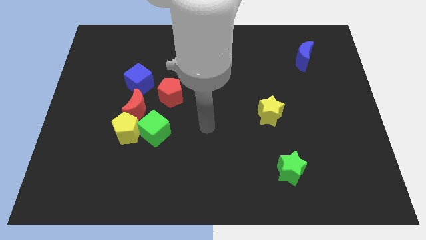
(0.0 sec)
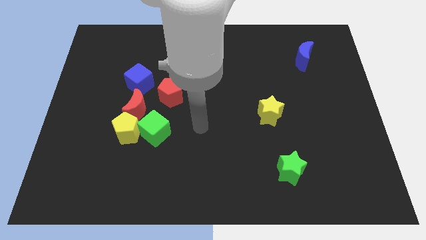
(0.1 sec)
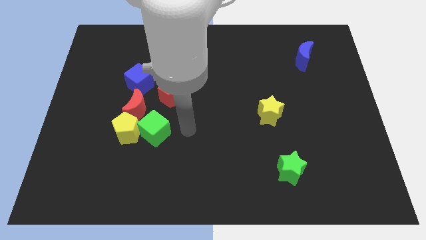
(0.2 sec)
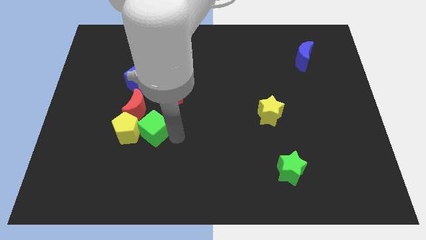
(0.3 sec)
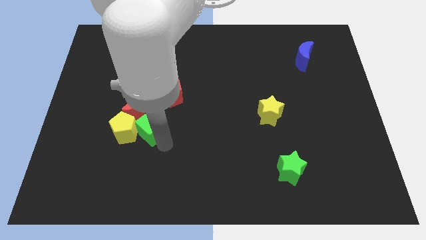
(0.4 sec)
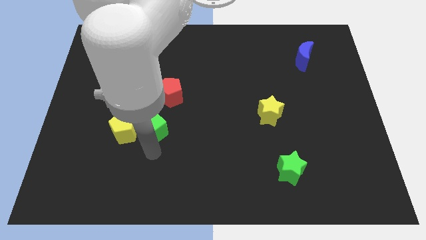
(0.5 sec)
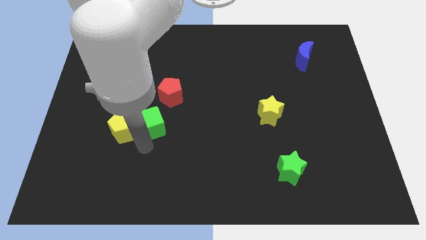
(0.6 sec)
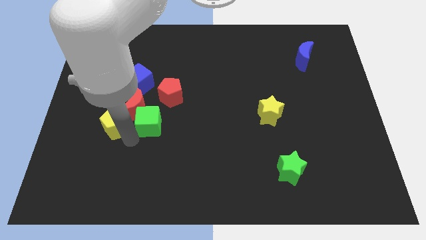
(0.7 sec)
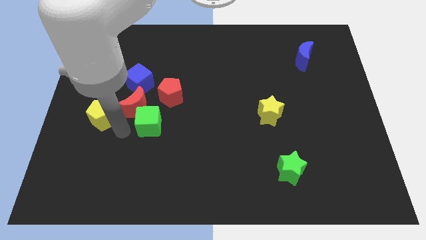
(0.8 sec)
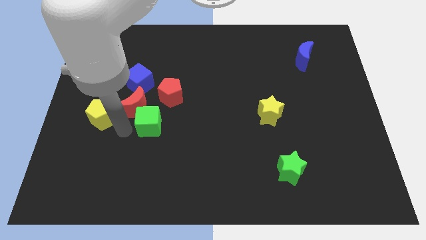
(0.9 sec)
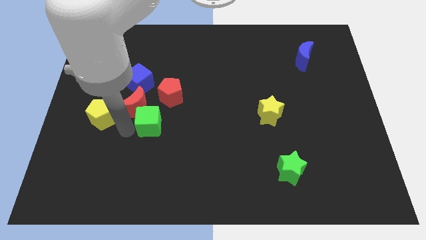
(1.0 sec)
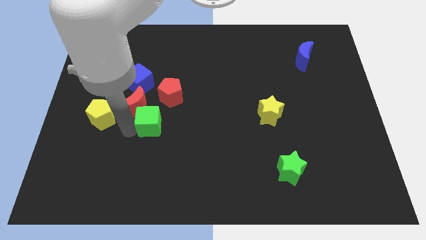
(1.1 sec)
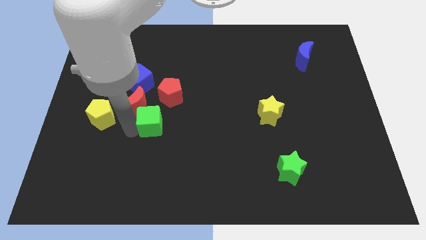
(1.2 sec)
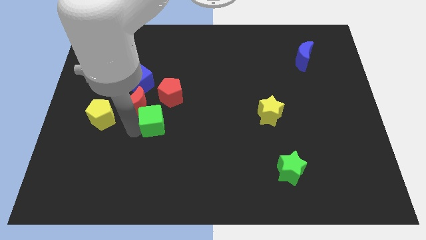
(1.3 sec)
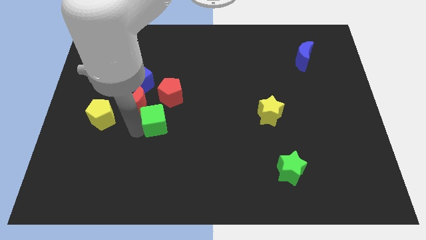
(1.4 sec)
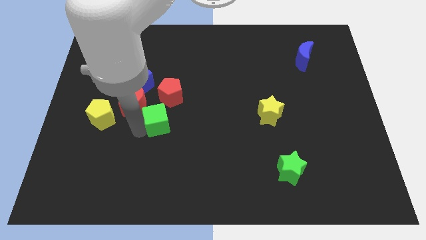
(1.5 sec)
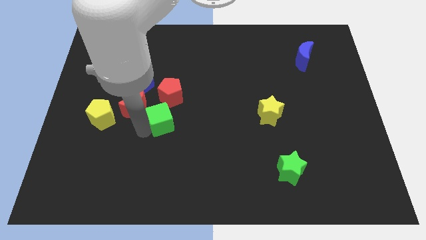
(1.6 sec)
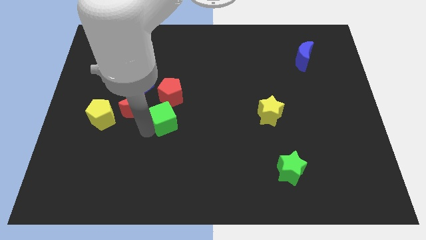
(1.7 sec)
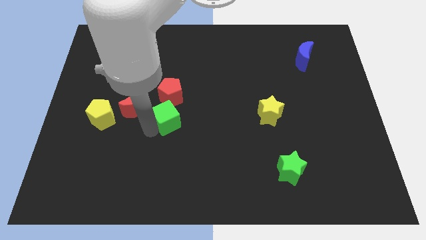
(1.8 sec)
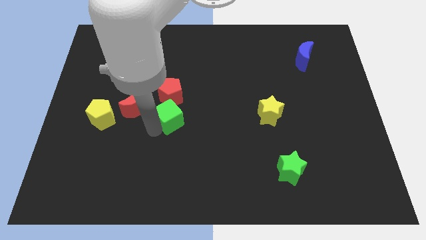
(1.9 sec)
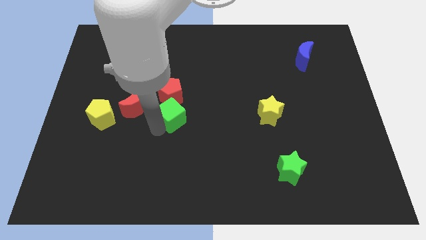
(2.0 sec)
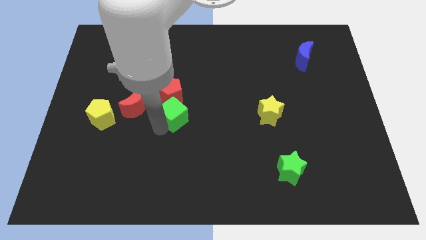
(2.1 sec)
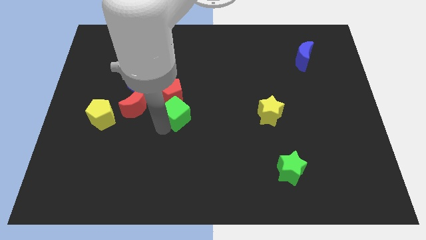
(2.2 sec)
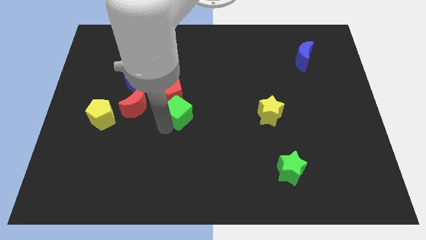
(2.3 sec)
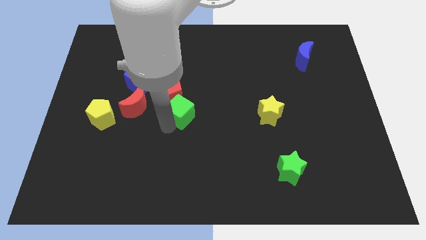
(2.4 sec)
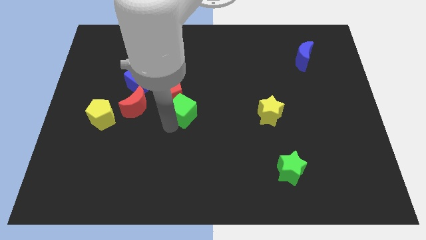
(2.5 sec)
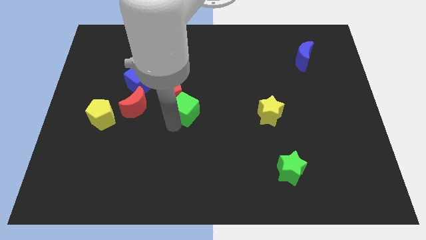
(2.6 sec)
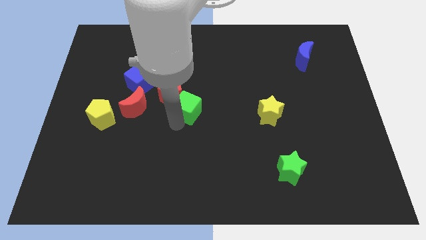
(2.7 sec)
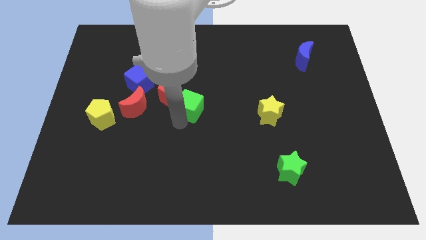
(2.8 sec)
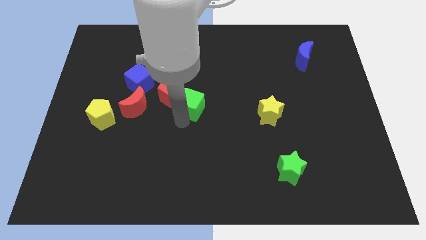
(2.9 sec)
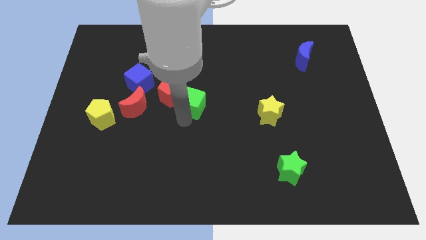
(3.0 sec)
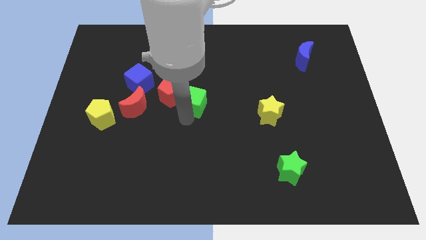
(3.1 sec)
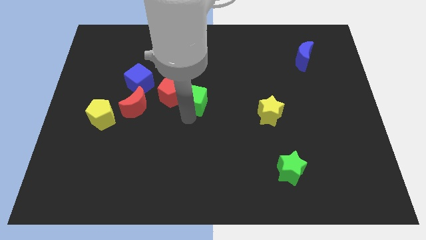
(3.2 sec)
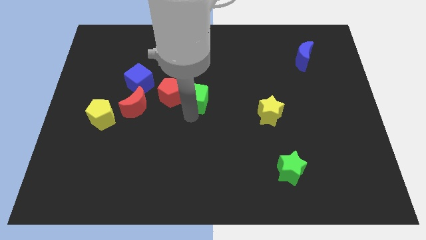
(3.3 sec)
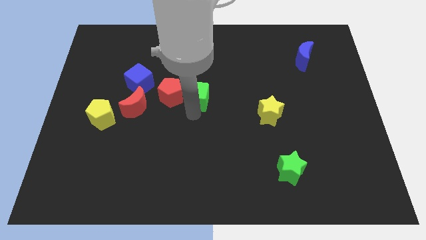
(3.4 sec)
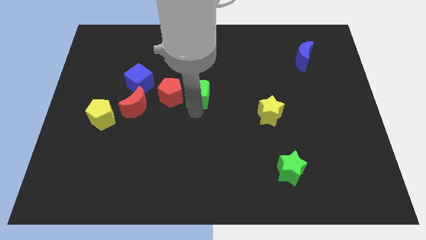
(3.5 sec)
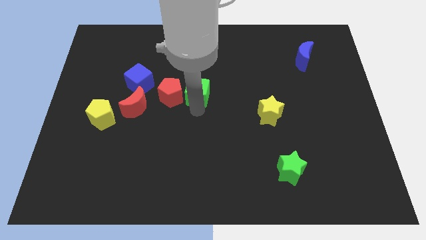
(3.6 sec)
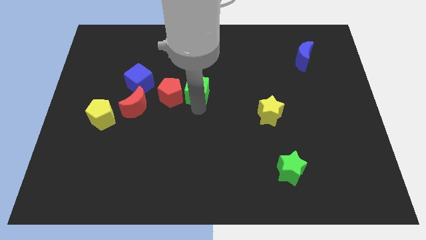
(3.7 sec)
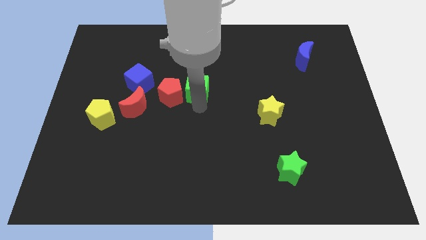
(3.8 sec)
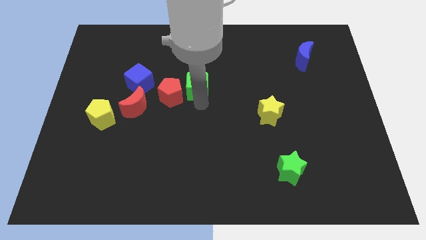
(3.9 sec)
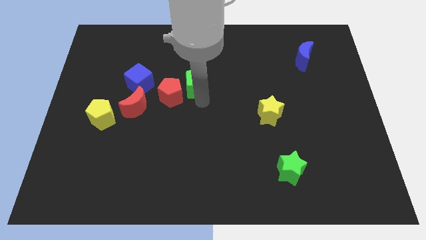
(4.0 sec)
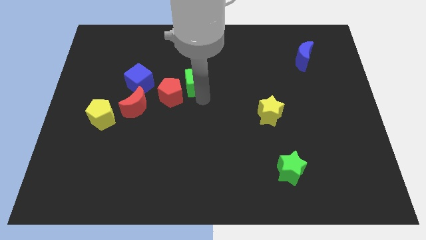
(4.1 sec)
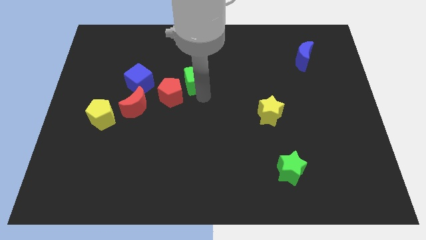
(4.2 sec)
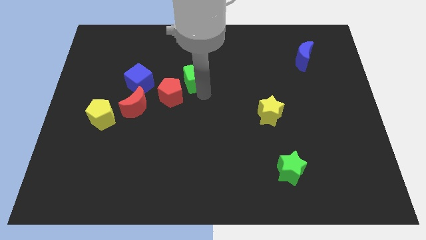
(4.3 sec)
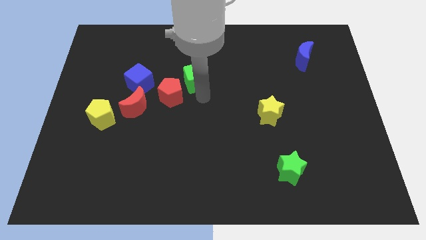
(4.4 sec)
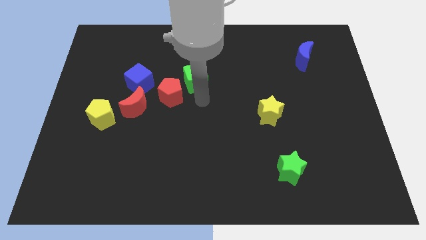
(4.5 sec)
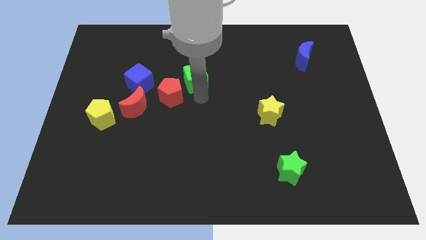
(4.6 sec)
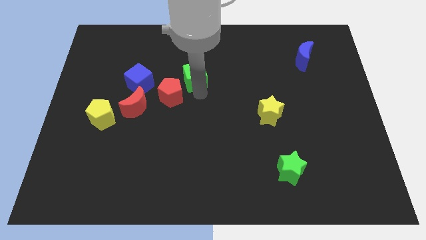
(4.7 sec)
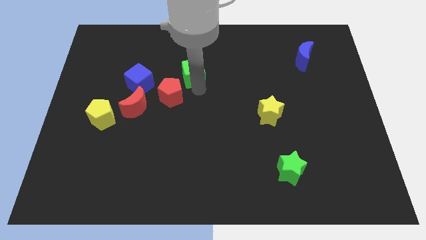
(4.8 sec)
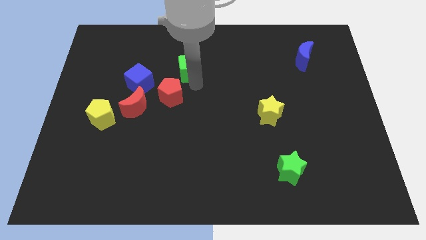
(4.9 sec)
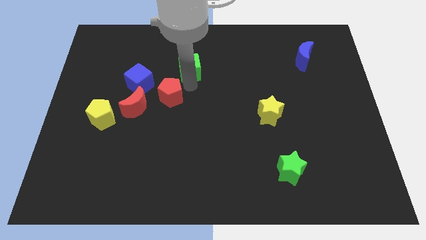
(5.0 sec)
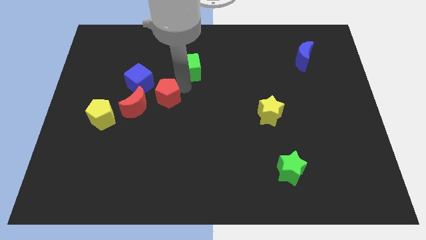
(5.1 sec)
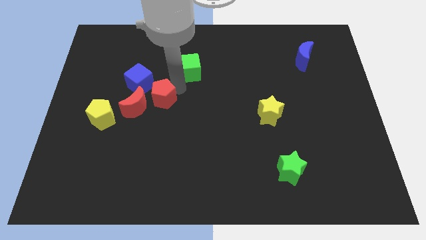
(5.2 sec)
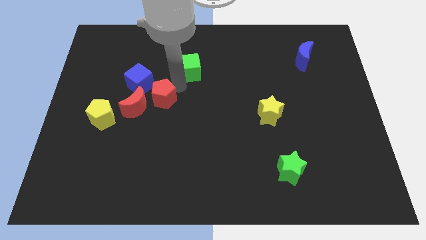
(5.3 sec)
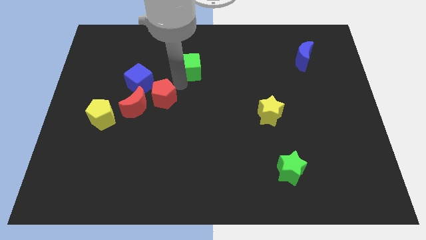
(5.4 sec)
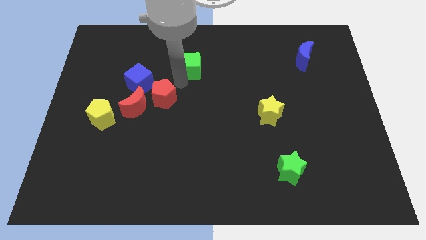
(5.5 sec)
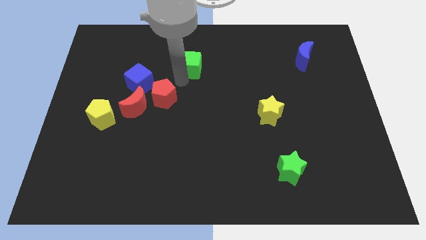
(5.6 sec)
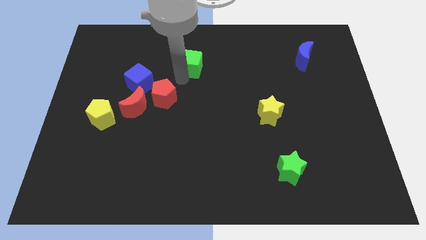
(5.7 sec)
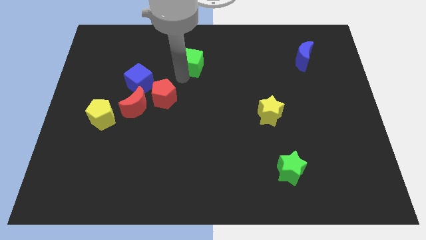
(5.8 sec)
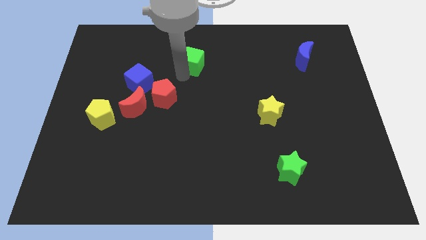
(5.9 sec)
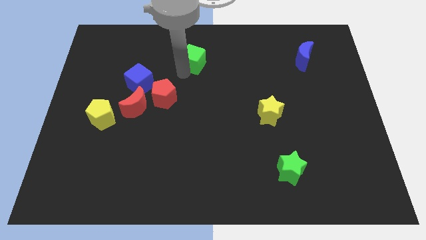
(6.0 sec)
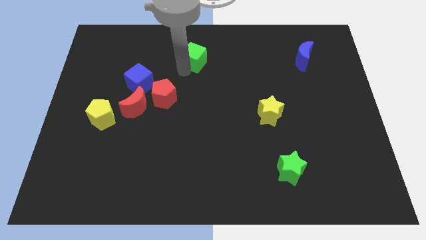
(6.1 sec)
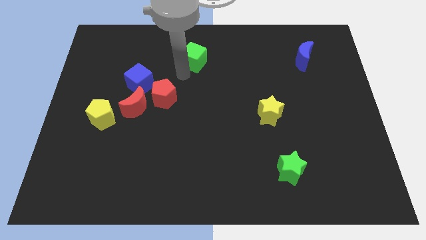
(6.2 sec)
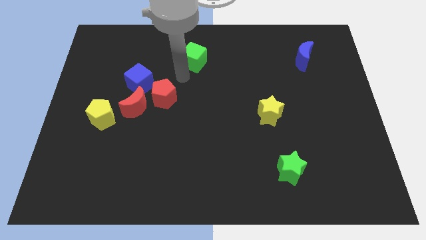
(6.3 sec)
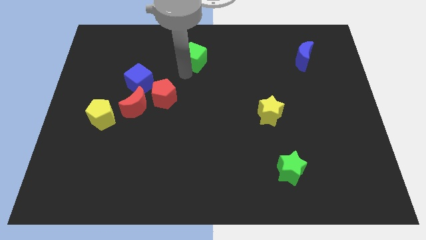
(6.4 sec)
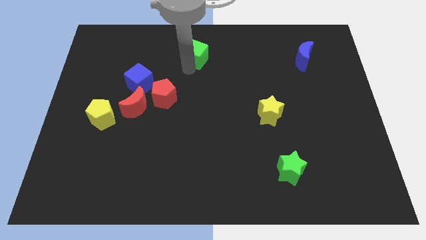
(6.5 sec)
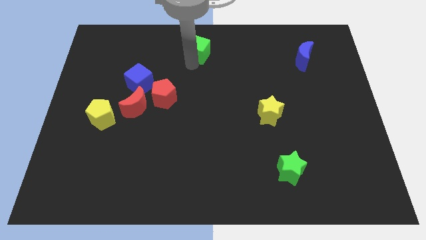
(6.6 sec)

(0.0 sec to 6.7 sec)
move the green cube to the towards your base
